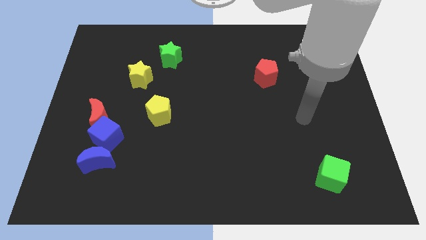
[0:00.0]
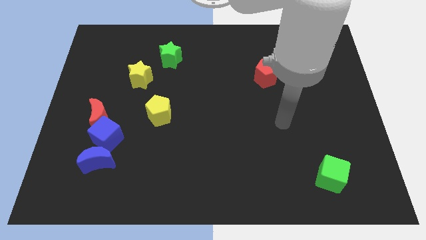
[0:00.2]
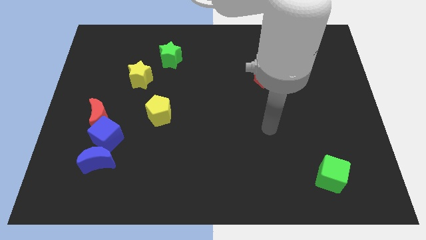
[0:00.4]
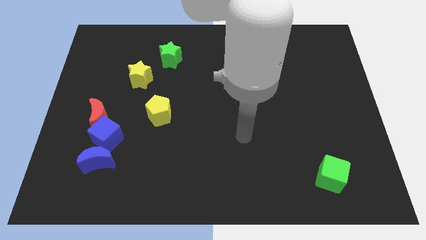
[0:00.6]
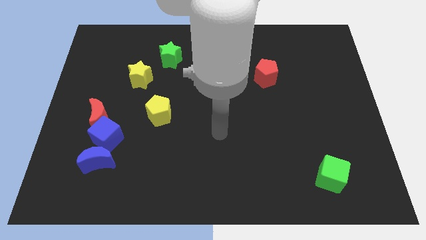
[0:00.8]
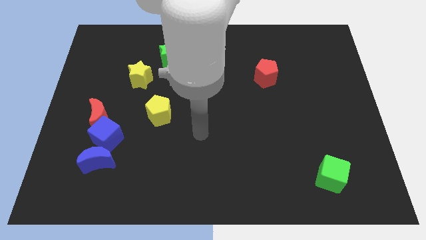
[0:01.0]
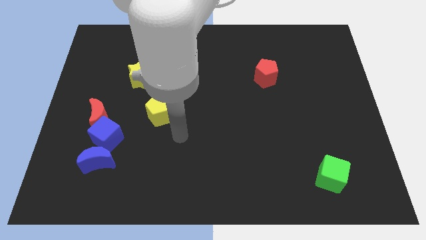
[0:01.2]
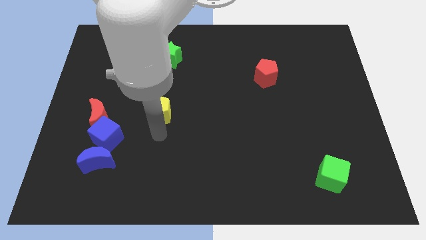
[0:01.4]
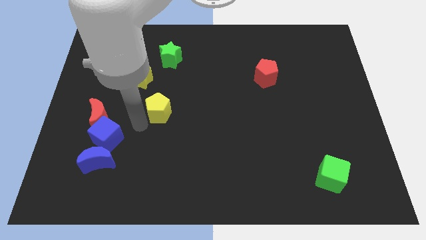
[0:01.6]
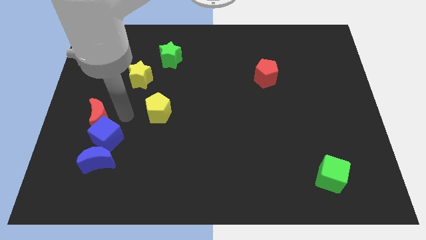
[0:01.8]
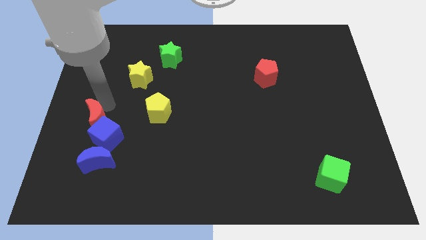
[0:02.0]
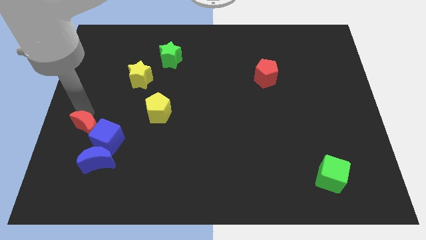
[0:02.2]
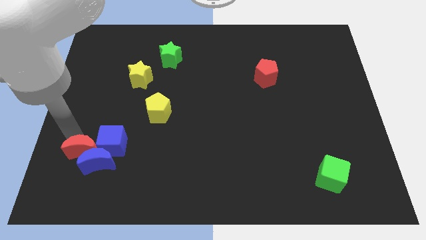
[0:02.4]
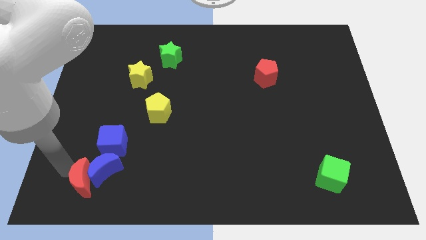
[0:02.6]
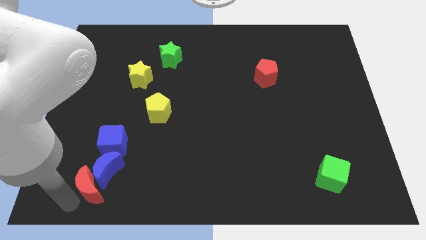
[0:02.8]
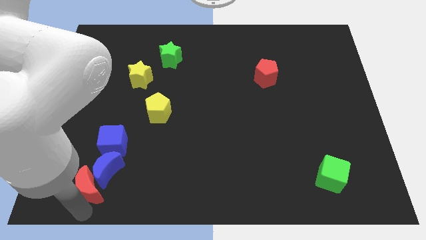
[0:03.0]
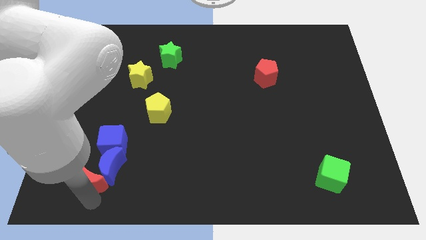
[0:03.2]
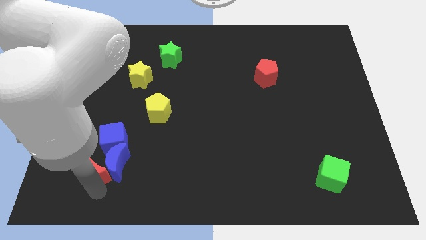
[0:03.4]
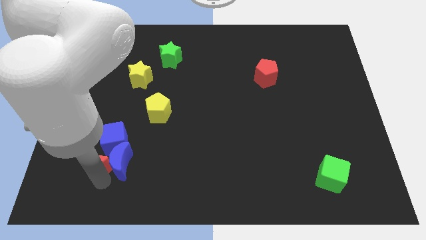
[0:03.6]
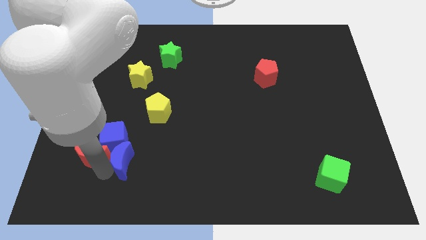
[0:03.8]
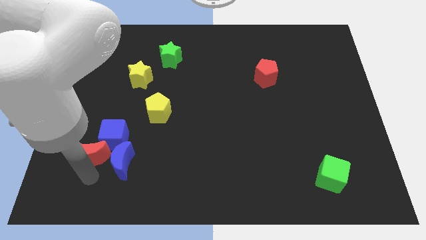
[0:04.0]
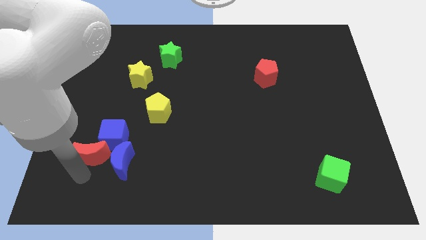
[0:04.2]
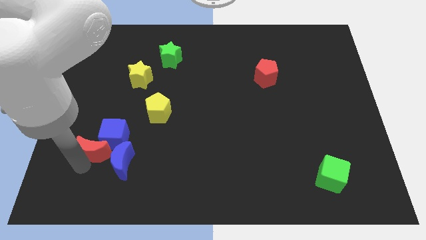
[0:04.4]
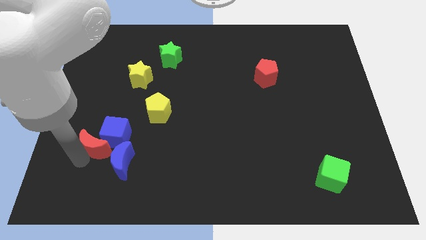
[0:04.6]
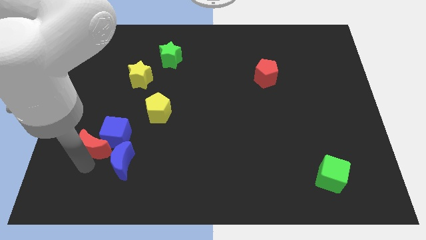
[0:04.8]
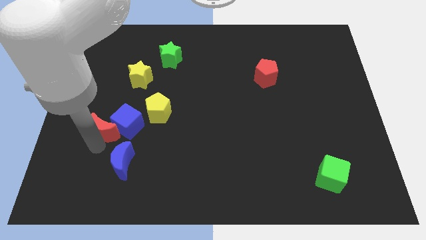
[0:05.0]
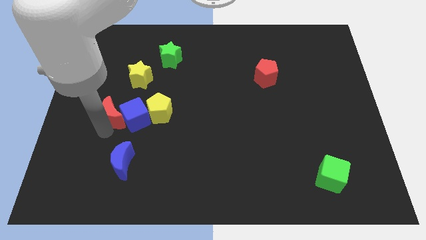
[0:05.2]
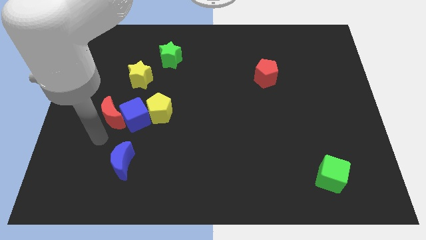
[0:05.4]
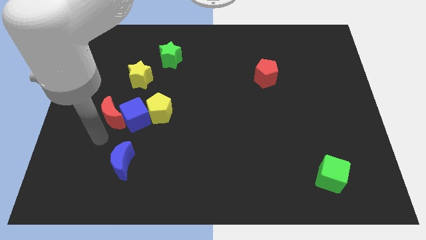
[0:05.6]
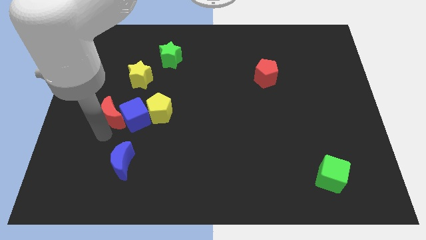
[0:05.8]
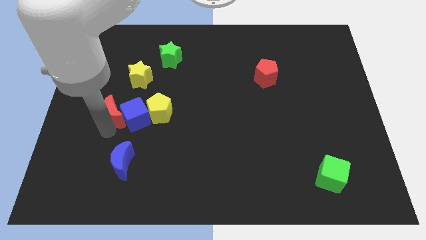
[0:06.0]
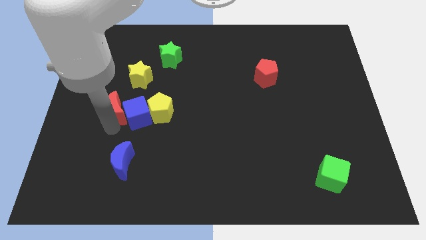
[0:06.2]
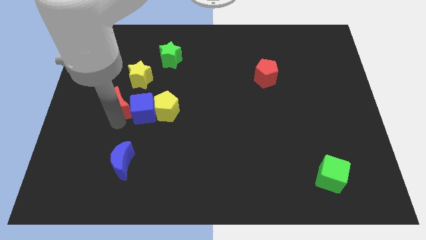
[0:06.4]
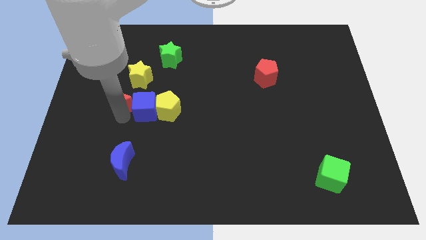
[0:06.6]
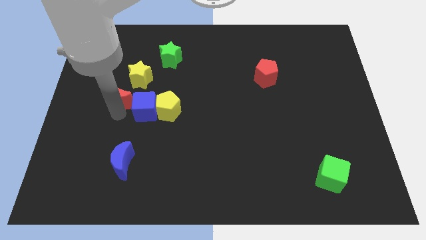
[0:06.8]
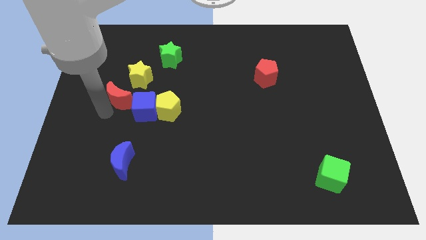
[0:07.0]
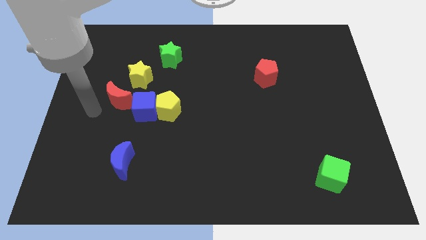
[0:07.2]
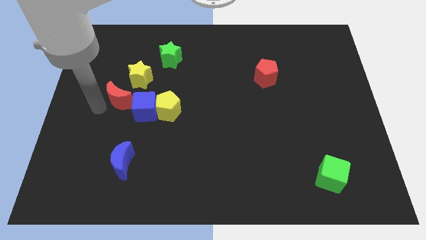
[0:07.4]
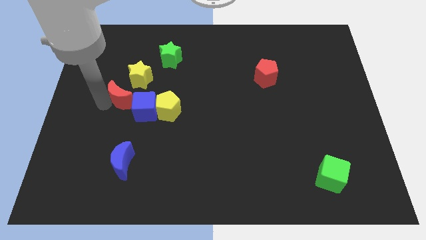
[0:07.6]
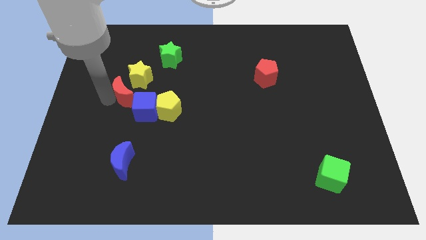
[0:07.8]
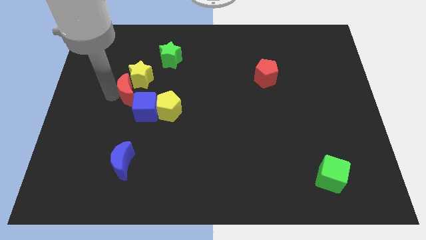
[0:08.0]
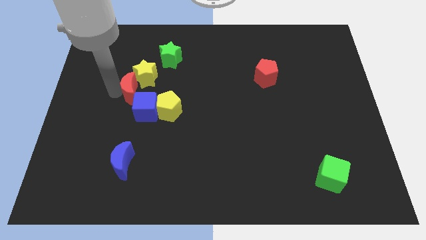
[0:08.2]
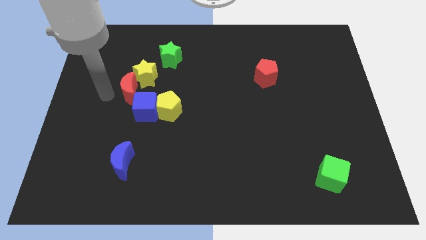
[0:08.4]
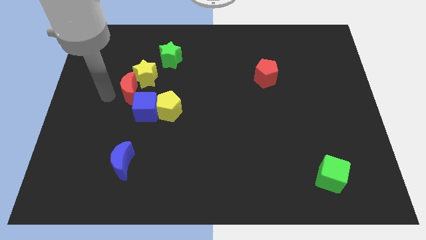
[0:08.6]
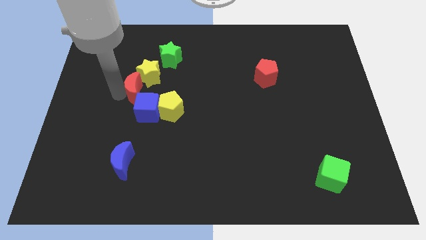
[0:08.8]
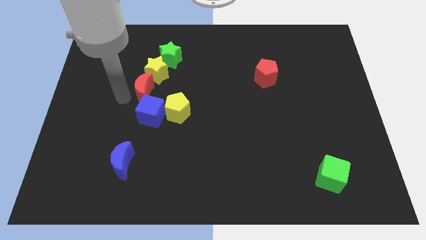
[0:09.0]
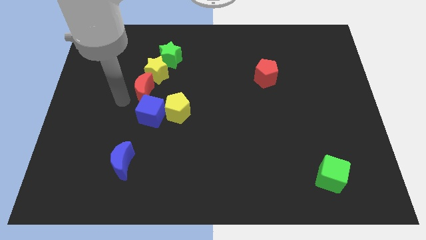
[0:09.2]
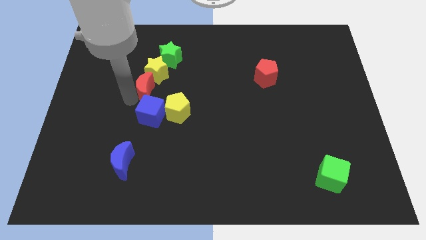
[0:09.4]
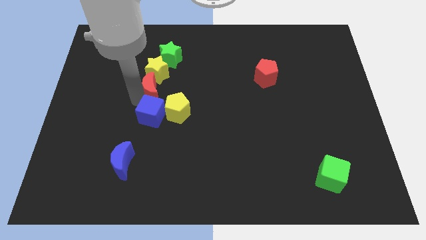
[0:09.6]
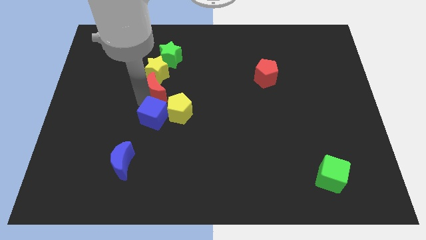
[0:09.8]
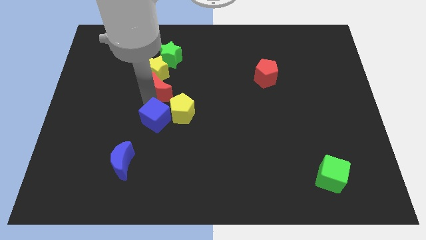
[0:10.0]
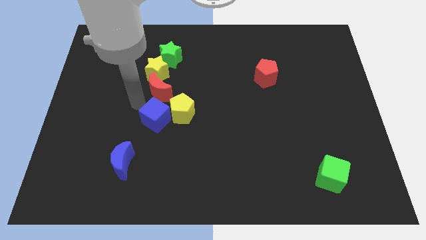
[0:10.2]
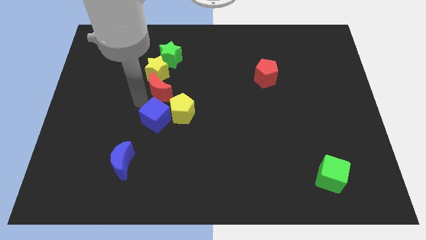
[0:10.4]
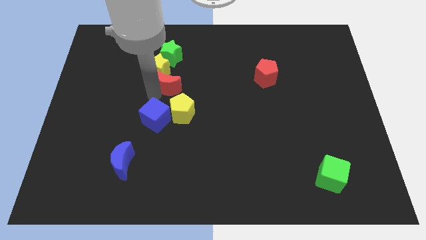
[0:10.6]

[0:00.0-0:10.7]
slide the red moon above the yellow pentagon

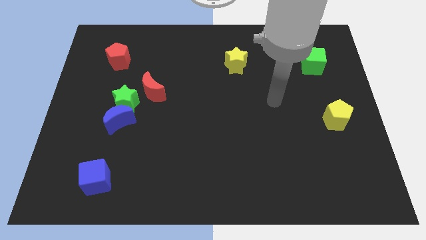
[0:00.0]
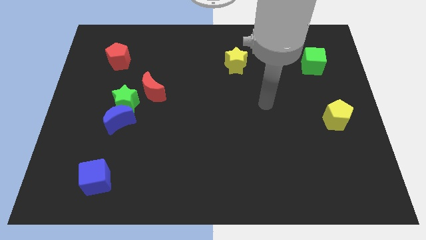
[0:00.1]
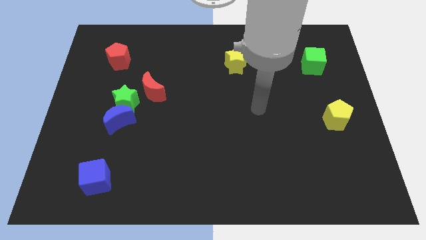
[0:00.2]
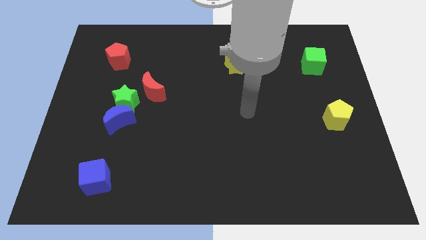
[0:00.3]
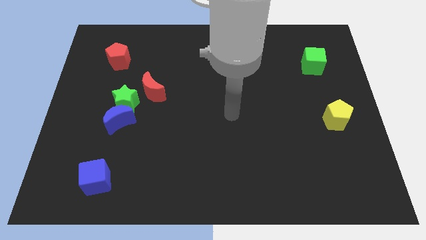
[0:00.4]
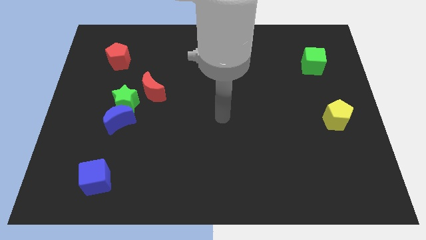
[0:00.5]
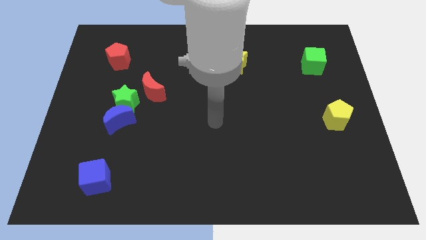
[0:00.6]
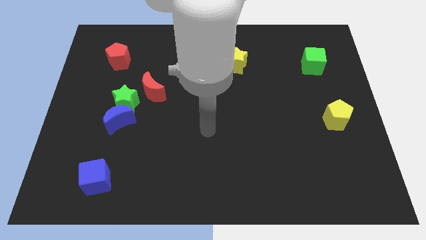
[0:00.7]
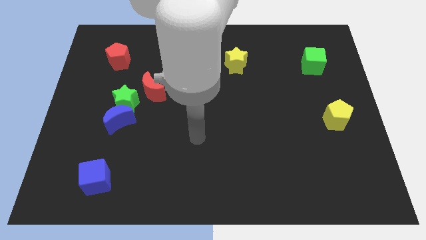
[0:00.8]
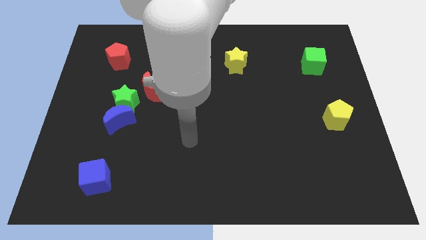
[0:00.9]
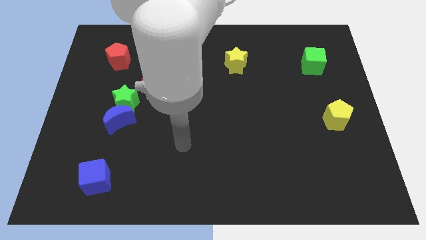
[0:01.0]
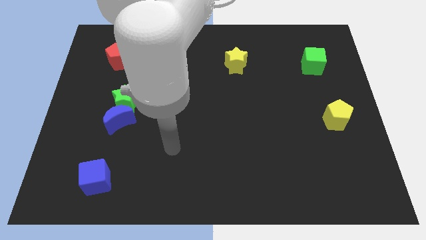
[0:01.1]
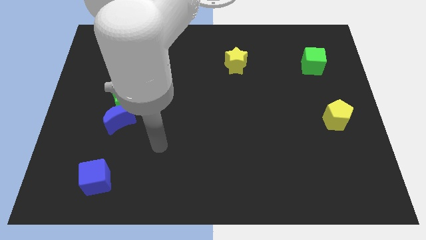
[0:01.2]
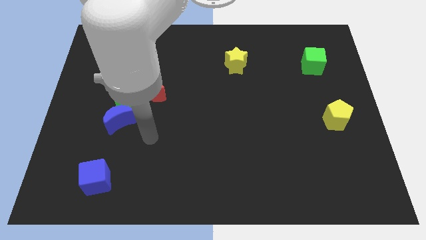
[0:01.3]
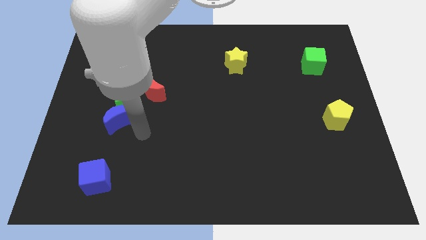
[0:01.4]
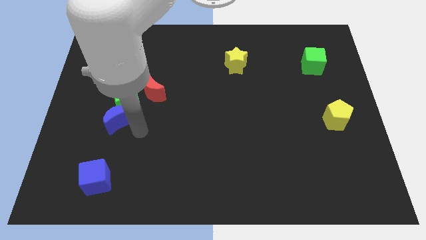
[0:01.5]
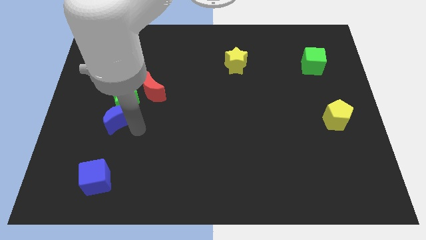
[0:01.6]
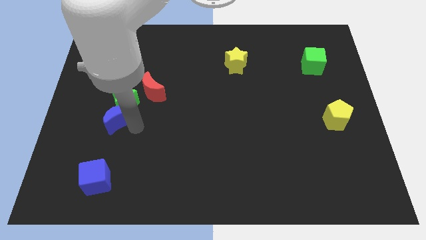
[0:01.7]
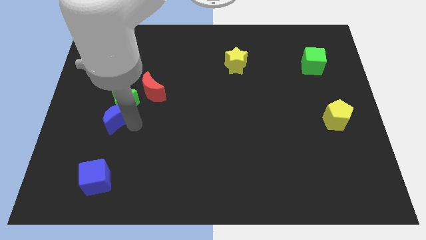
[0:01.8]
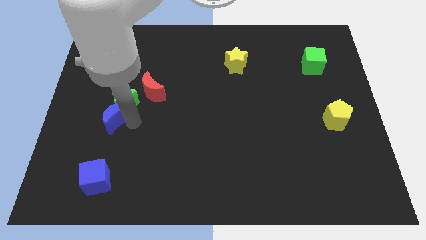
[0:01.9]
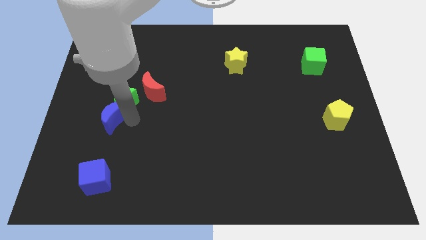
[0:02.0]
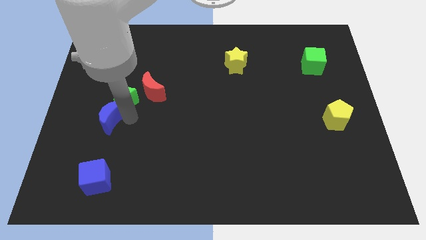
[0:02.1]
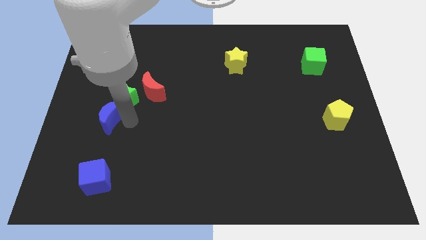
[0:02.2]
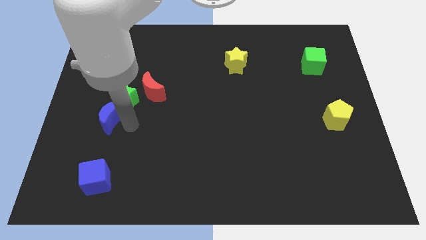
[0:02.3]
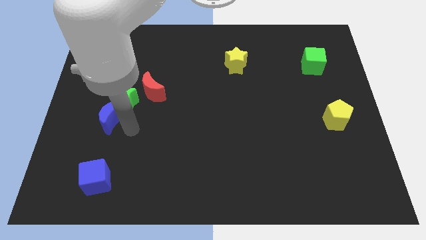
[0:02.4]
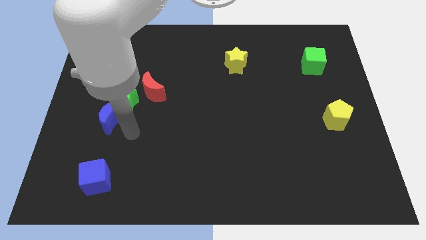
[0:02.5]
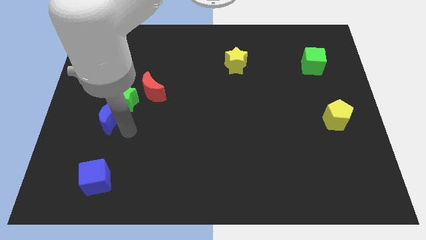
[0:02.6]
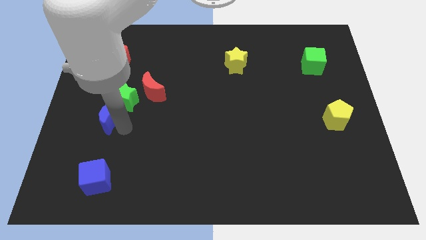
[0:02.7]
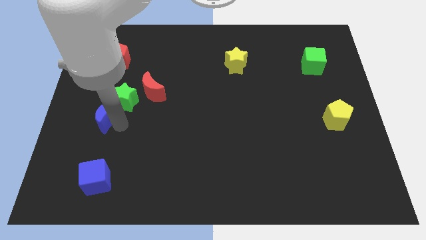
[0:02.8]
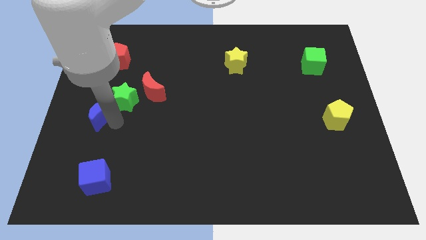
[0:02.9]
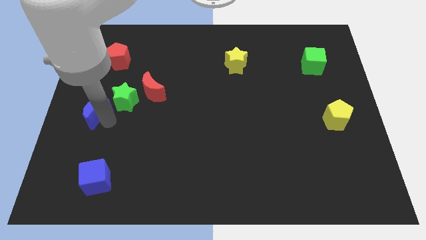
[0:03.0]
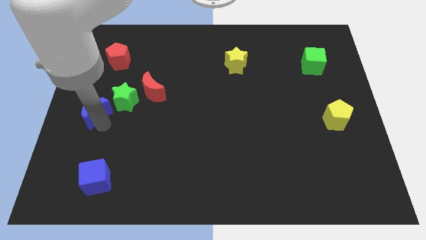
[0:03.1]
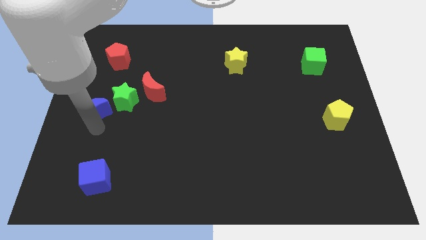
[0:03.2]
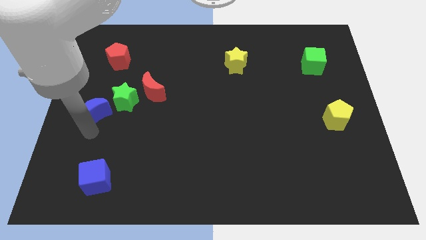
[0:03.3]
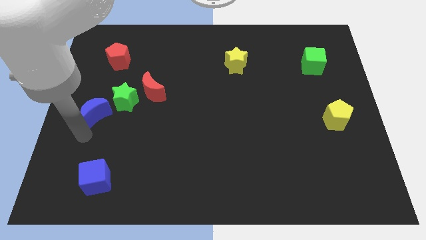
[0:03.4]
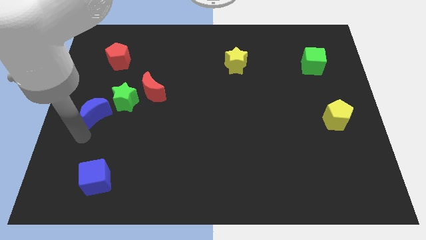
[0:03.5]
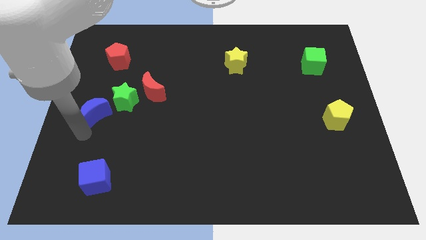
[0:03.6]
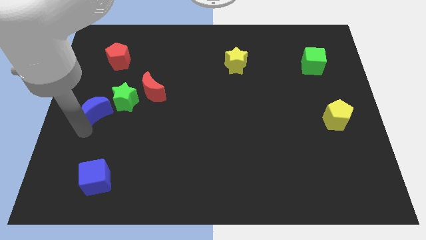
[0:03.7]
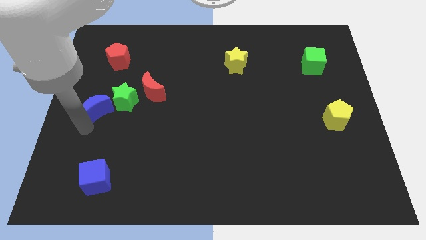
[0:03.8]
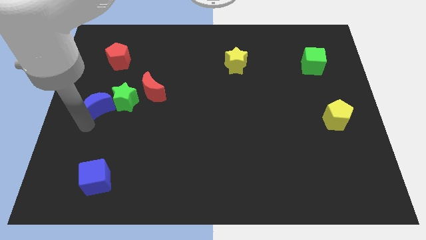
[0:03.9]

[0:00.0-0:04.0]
move the blue moon just left of the red moon
